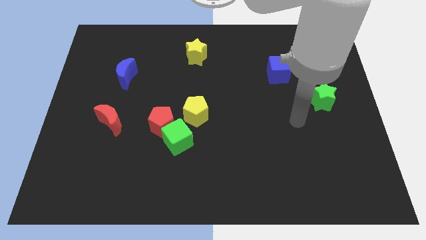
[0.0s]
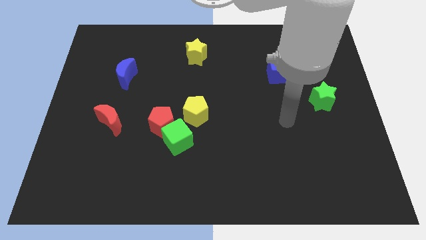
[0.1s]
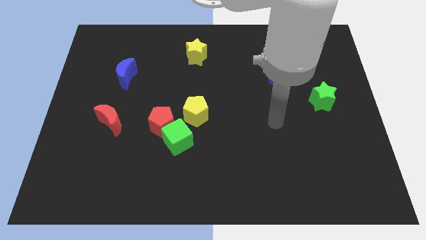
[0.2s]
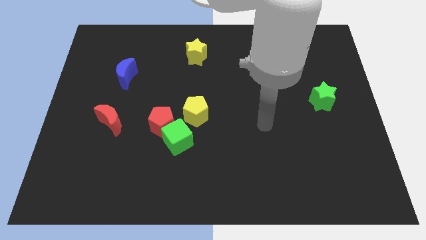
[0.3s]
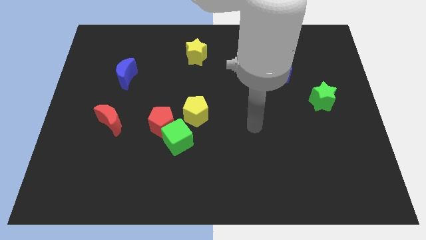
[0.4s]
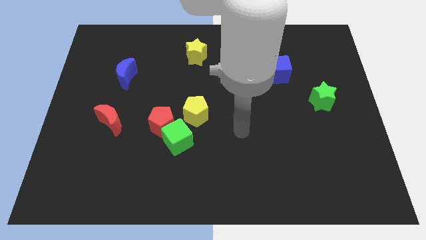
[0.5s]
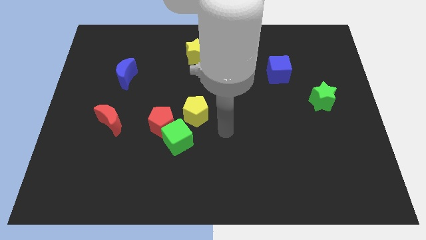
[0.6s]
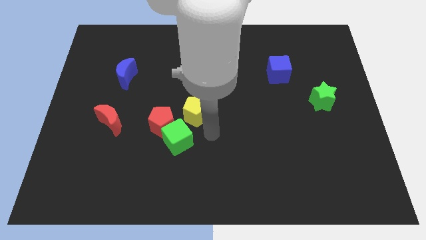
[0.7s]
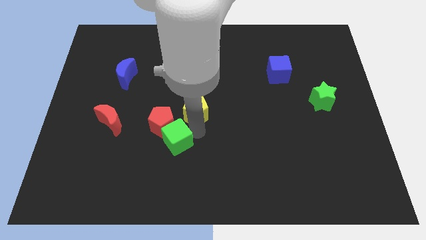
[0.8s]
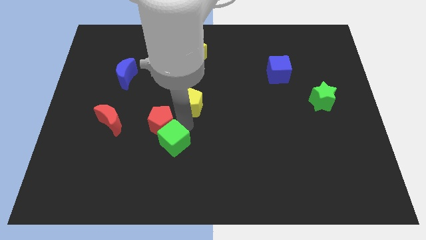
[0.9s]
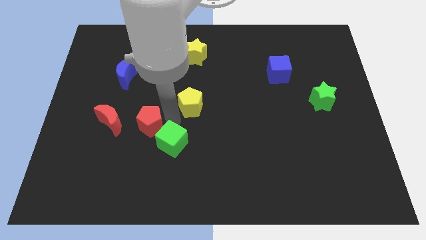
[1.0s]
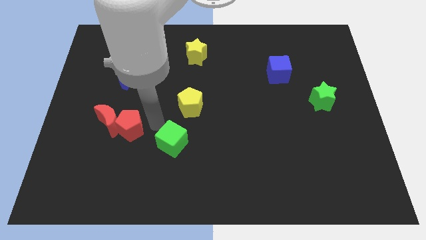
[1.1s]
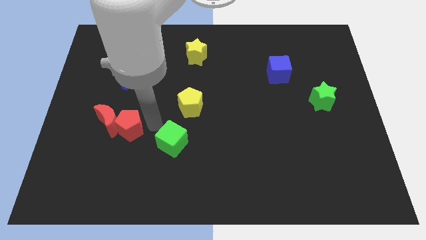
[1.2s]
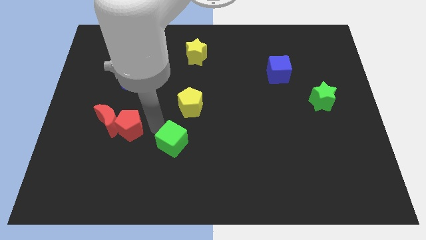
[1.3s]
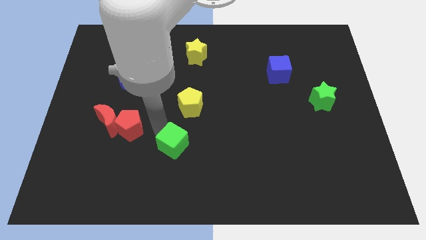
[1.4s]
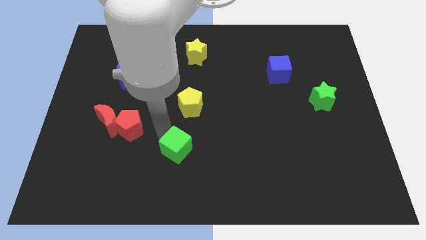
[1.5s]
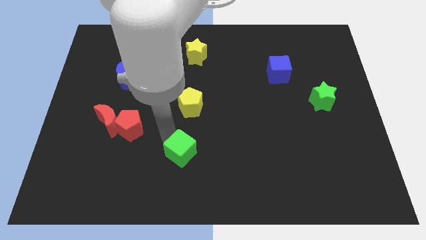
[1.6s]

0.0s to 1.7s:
separate the green cube from the red pentagon and yellow pentagon

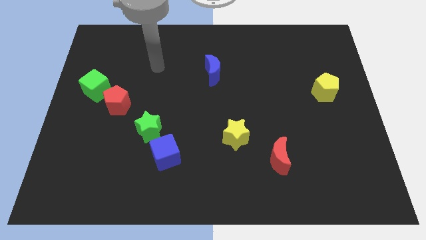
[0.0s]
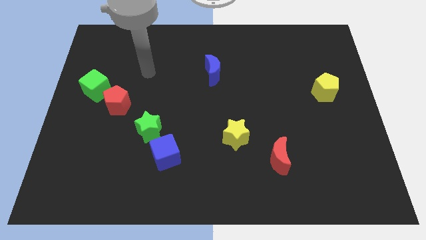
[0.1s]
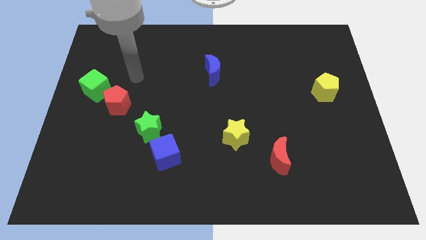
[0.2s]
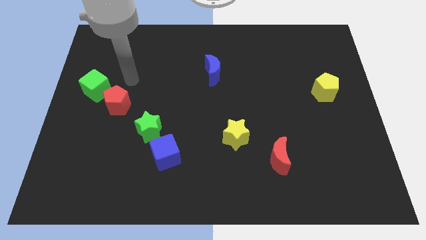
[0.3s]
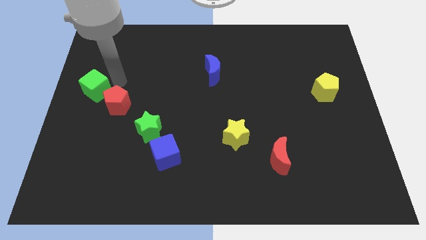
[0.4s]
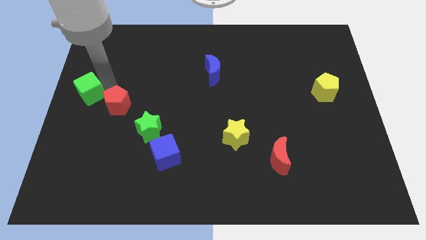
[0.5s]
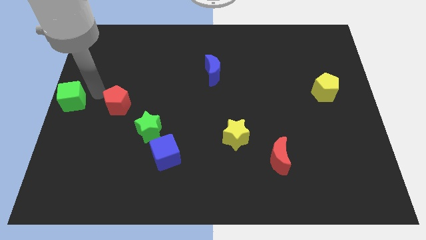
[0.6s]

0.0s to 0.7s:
separate the red pentagon from the green cube

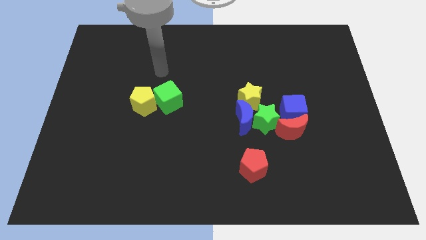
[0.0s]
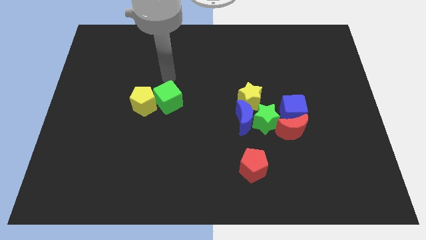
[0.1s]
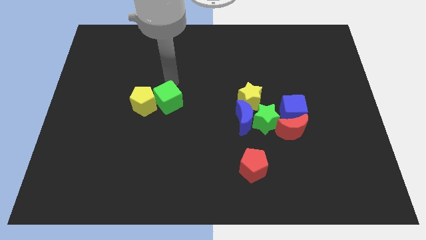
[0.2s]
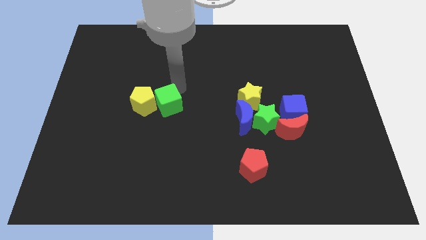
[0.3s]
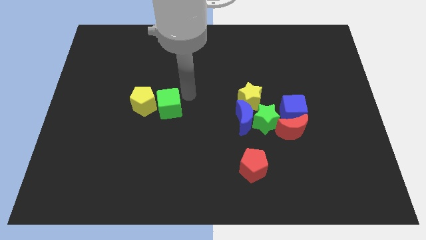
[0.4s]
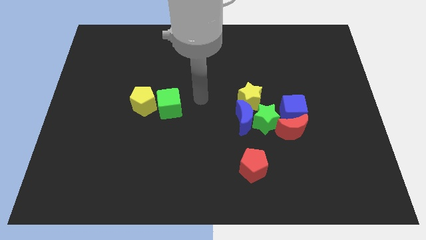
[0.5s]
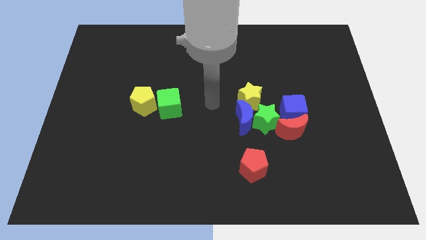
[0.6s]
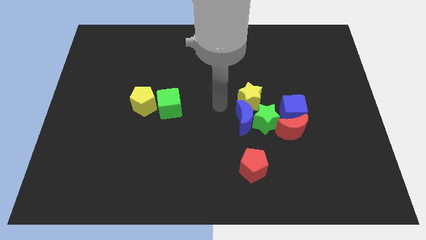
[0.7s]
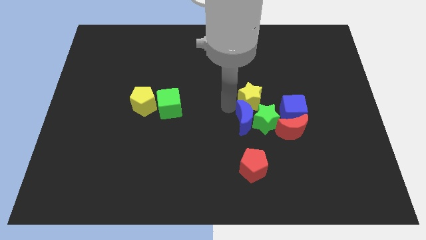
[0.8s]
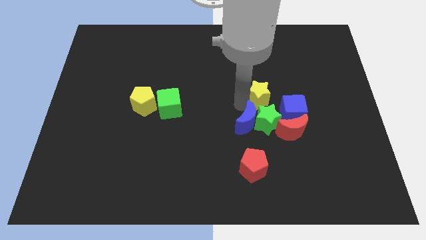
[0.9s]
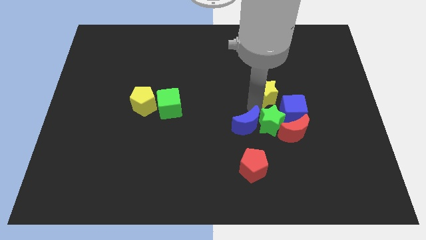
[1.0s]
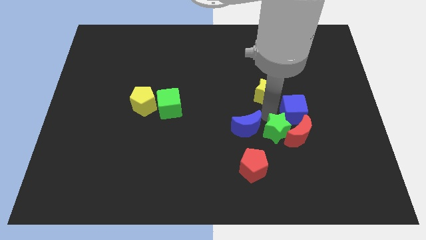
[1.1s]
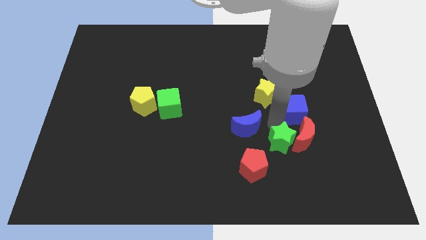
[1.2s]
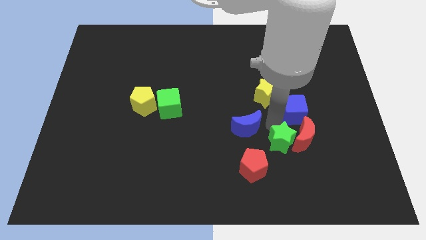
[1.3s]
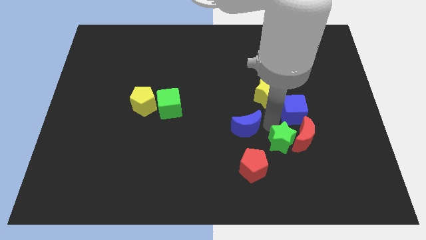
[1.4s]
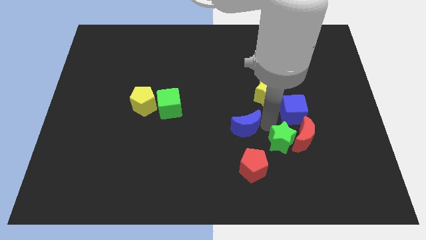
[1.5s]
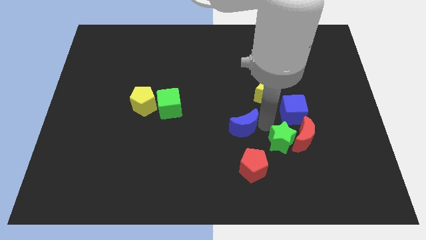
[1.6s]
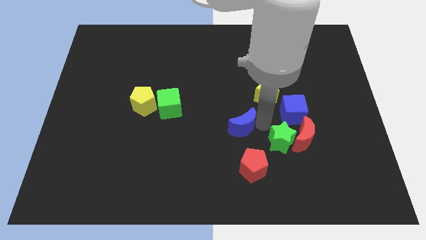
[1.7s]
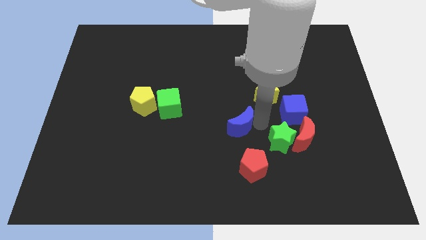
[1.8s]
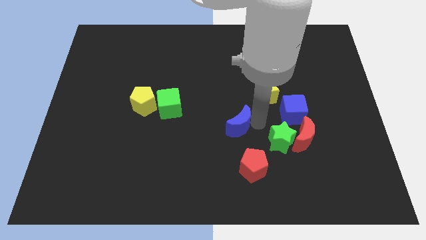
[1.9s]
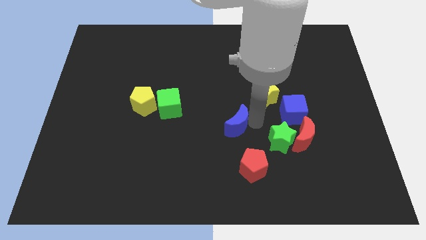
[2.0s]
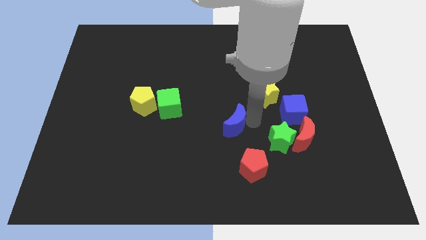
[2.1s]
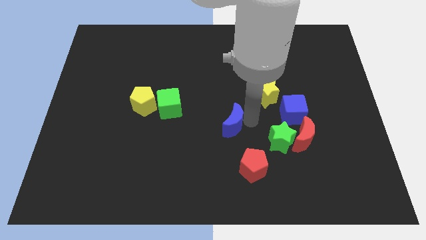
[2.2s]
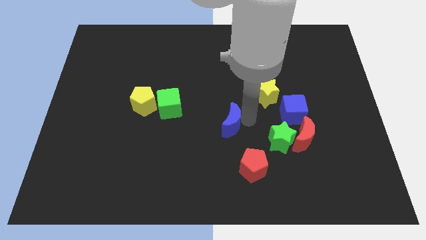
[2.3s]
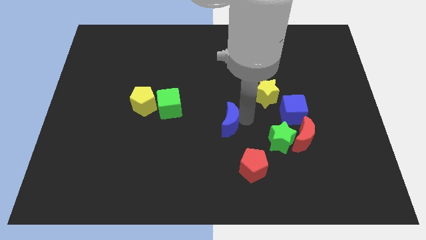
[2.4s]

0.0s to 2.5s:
pull the blue moon apart from the green star and yellow star

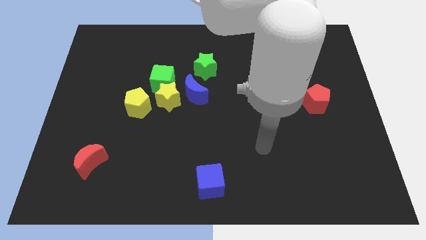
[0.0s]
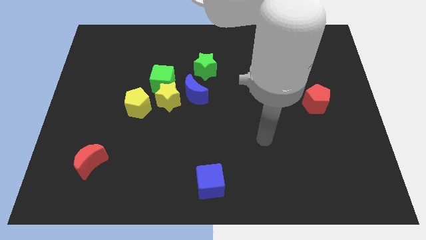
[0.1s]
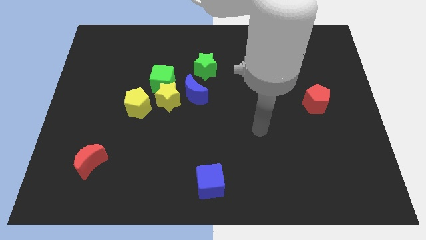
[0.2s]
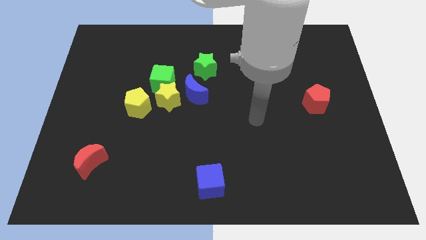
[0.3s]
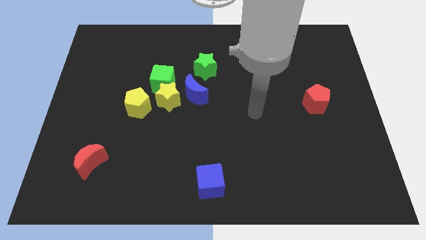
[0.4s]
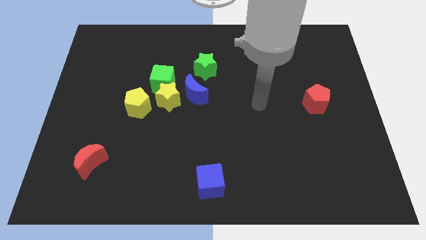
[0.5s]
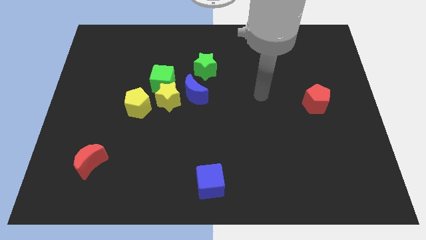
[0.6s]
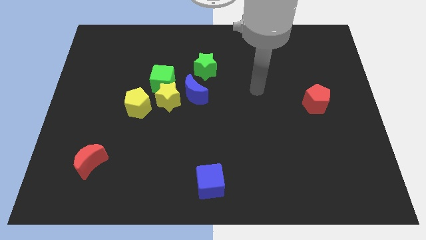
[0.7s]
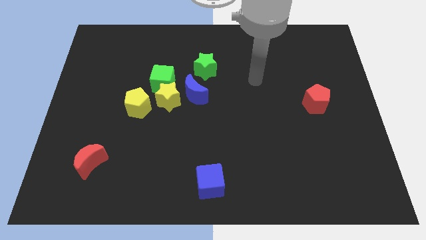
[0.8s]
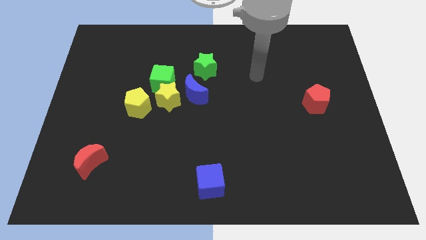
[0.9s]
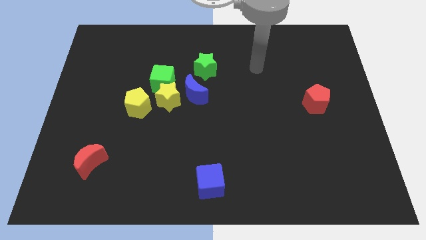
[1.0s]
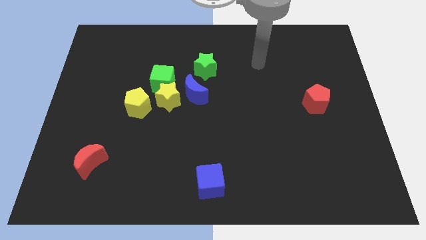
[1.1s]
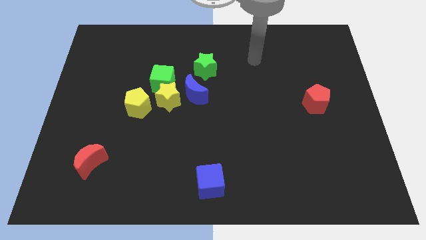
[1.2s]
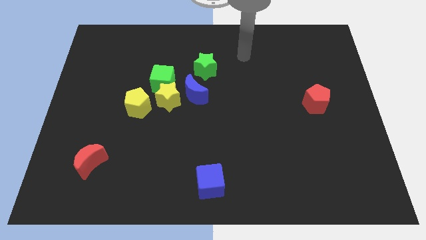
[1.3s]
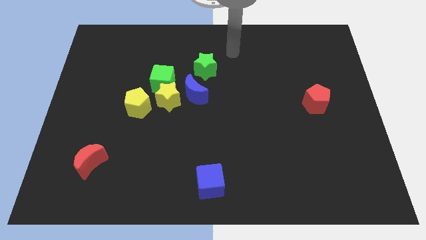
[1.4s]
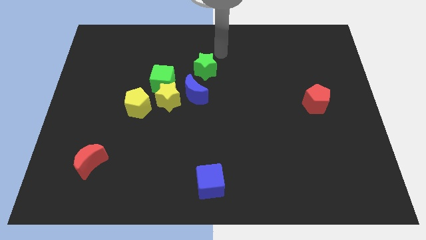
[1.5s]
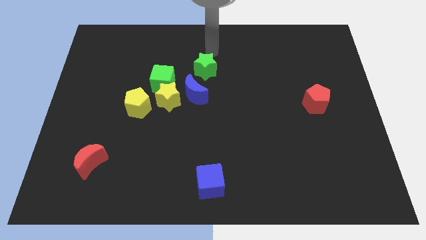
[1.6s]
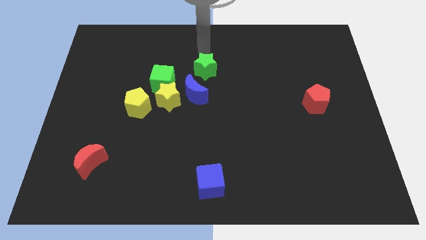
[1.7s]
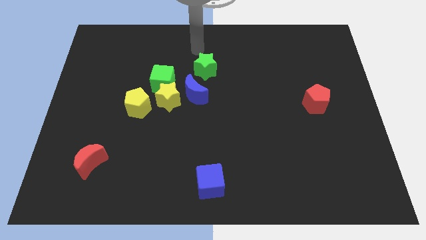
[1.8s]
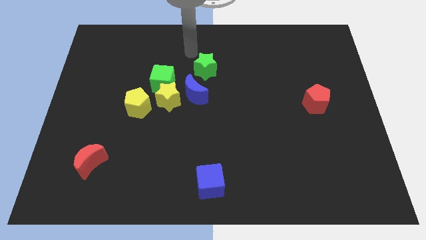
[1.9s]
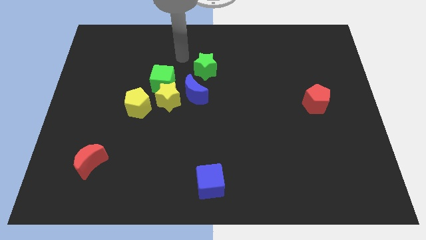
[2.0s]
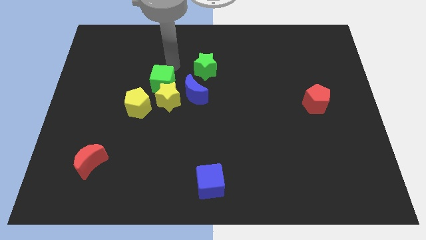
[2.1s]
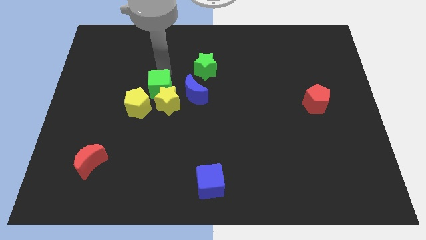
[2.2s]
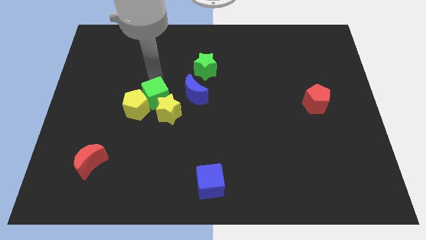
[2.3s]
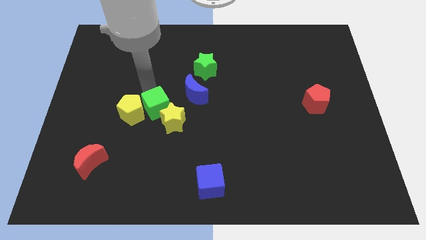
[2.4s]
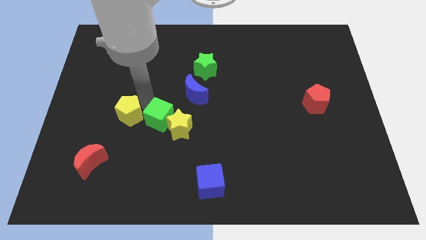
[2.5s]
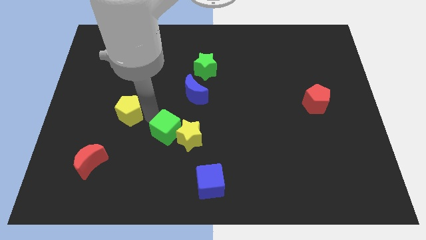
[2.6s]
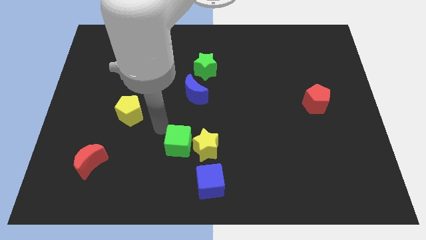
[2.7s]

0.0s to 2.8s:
pull the yellow star apart from the group

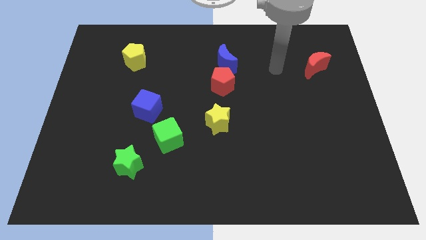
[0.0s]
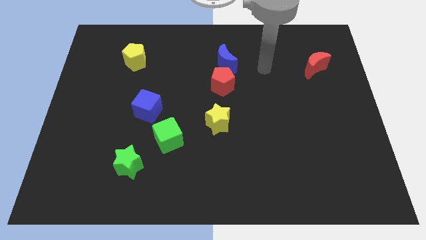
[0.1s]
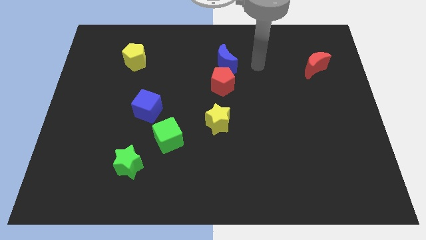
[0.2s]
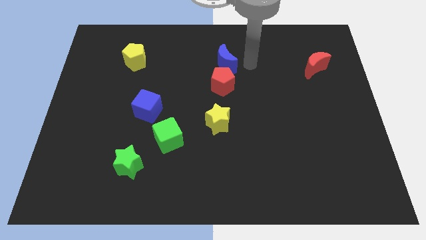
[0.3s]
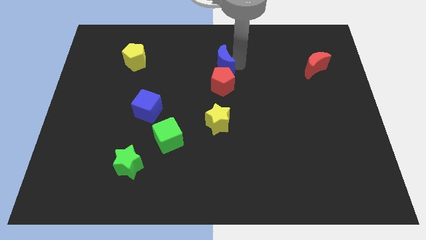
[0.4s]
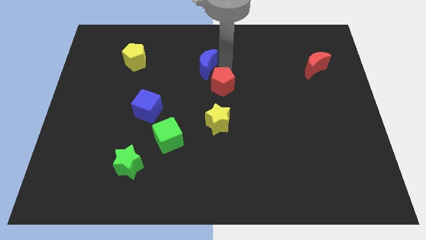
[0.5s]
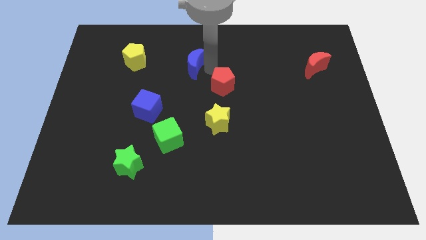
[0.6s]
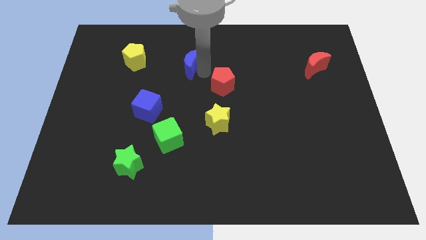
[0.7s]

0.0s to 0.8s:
pull the red pentagon apart from the blue moon

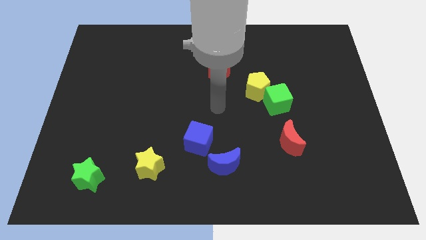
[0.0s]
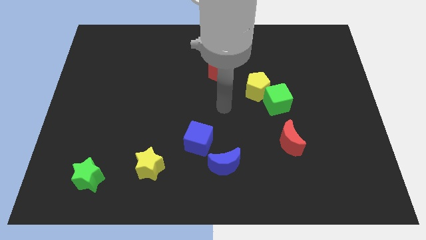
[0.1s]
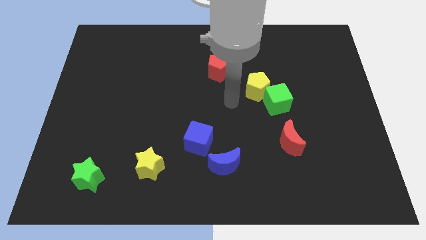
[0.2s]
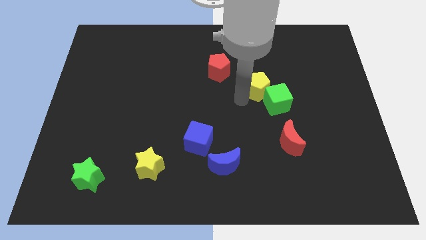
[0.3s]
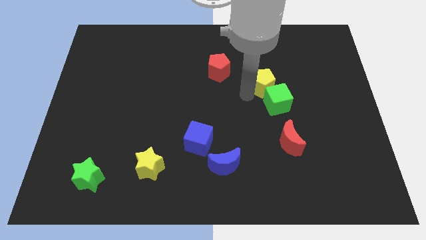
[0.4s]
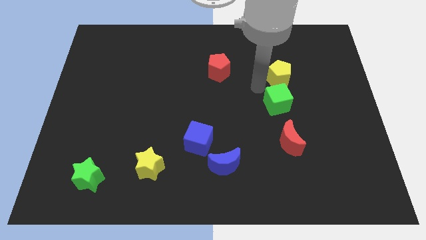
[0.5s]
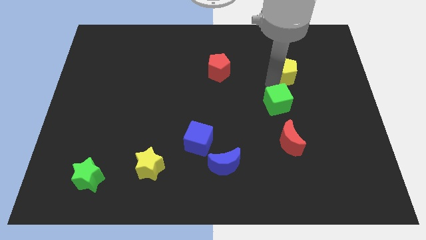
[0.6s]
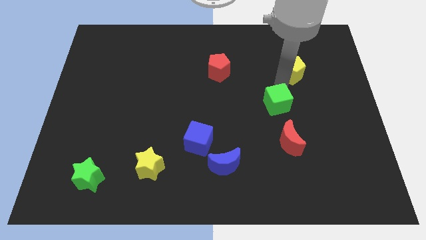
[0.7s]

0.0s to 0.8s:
move the green cube away from the yellow pentagon
